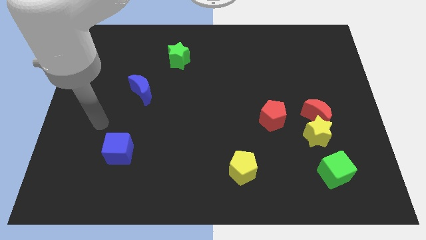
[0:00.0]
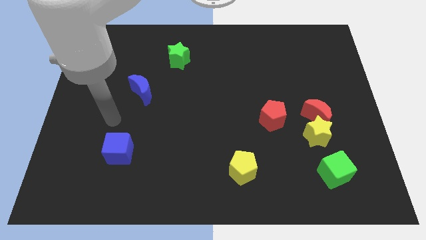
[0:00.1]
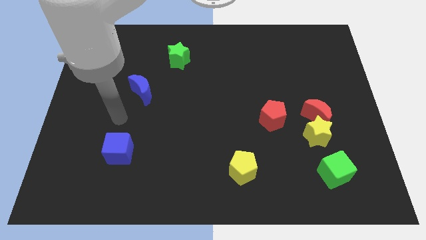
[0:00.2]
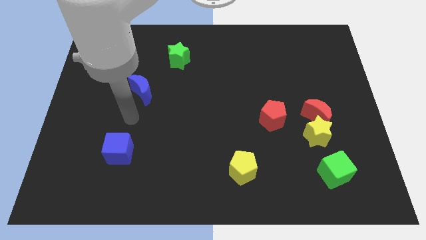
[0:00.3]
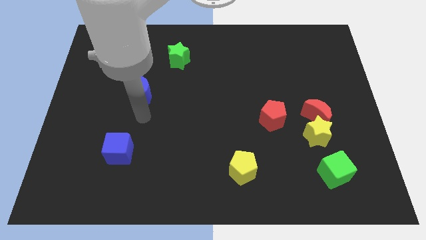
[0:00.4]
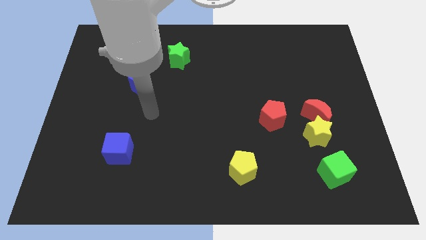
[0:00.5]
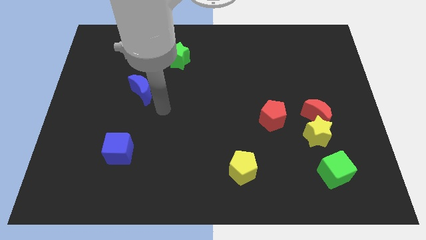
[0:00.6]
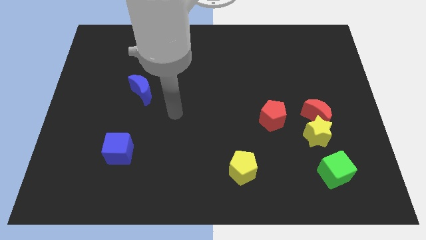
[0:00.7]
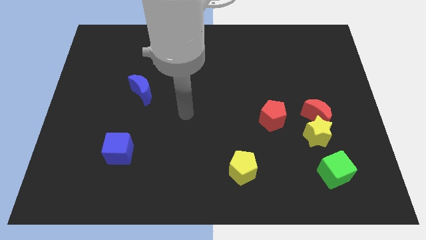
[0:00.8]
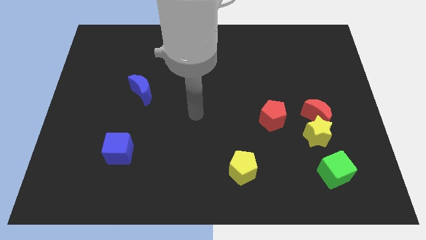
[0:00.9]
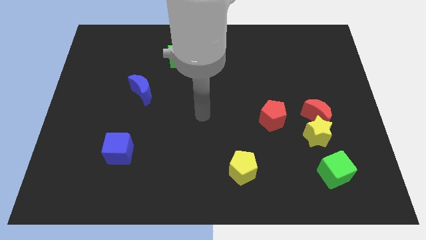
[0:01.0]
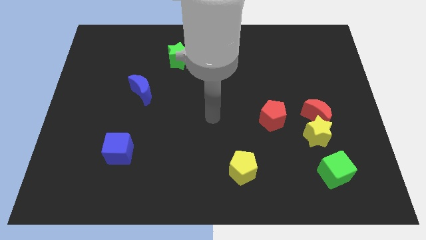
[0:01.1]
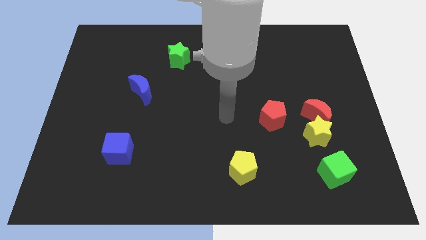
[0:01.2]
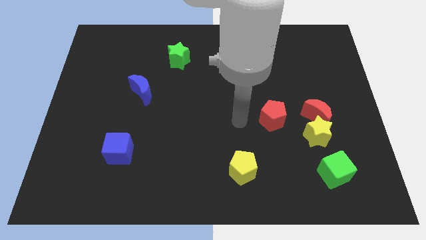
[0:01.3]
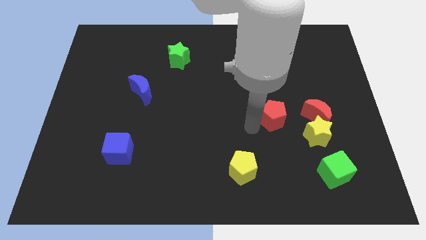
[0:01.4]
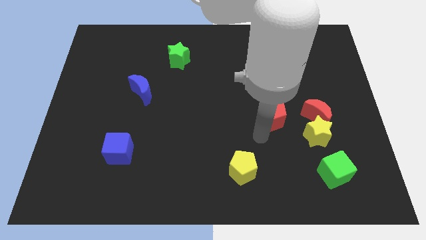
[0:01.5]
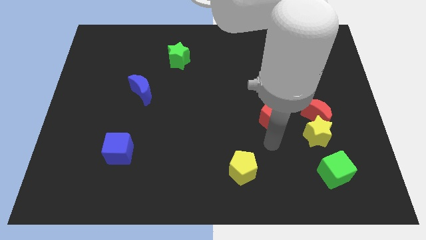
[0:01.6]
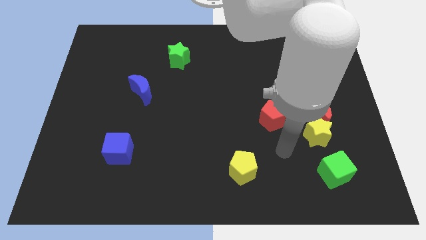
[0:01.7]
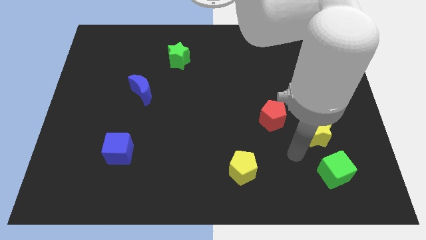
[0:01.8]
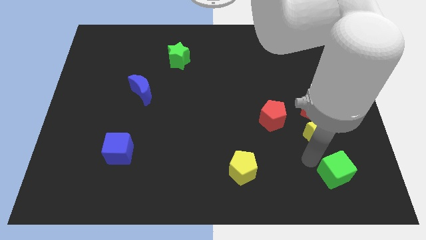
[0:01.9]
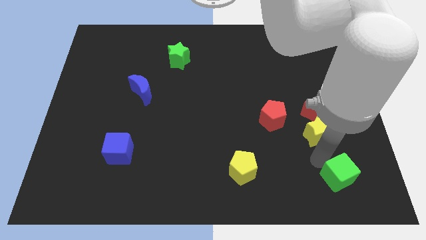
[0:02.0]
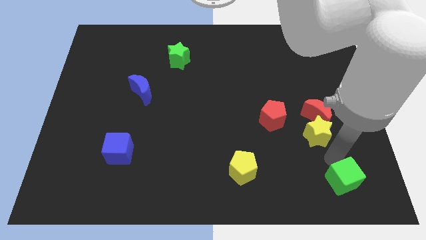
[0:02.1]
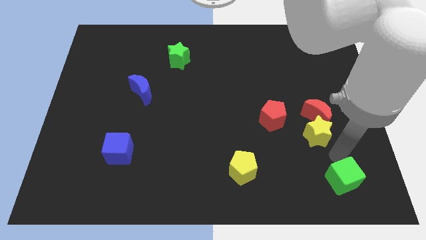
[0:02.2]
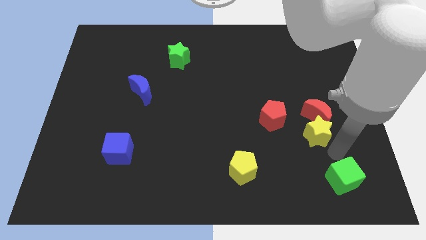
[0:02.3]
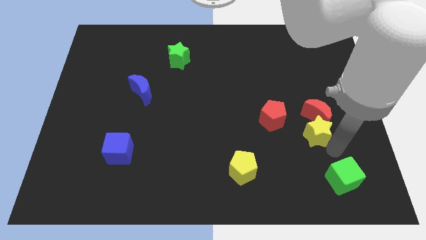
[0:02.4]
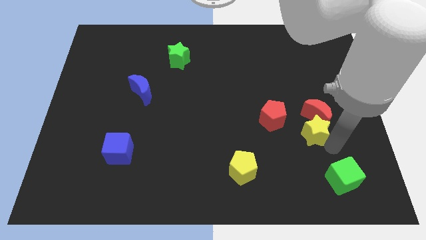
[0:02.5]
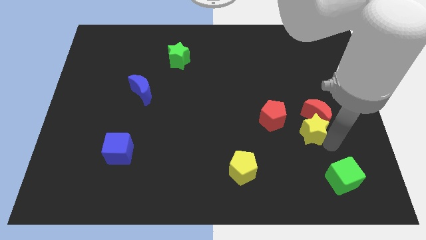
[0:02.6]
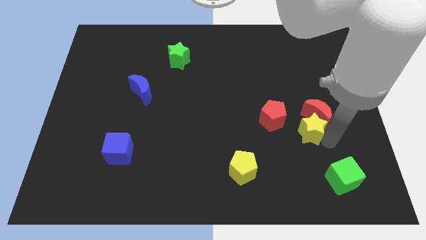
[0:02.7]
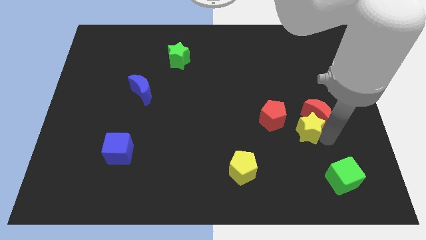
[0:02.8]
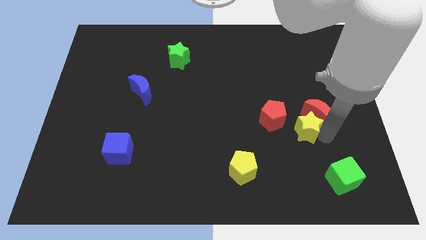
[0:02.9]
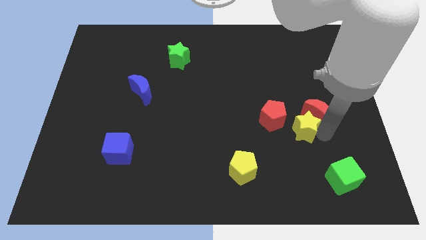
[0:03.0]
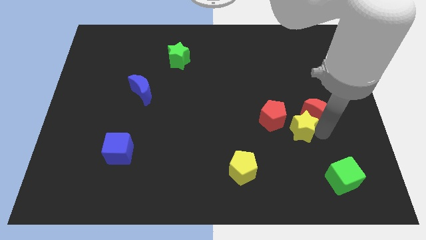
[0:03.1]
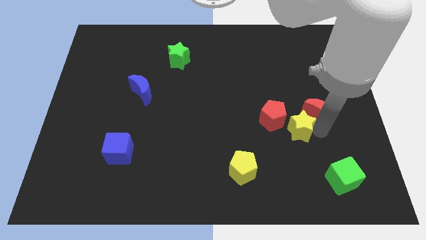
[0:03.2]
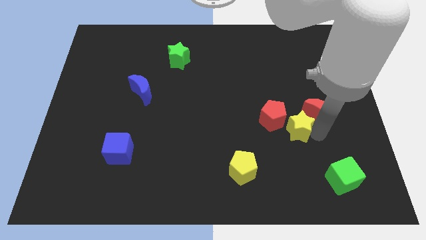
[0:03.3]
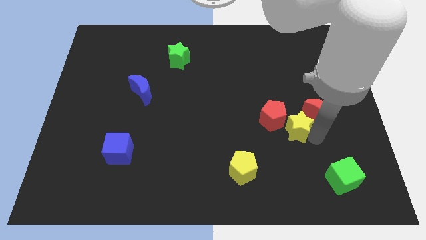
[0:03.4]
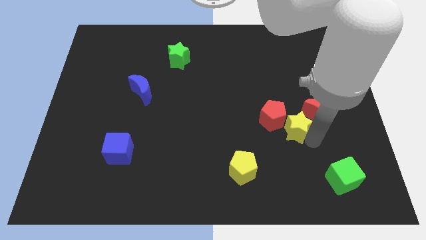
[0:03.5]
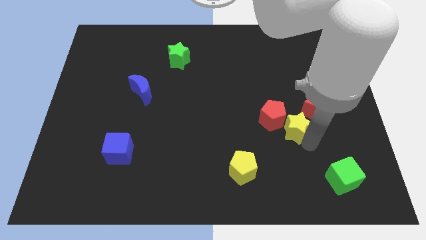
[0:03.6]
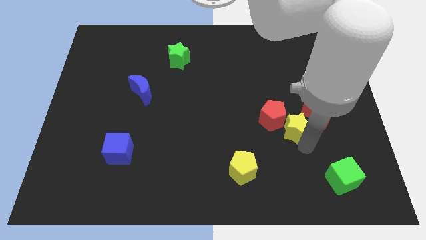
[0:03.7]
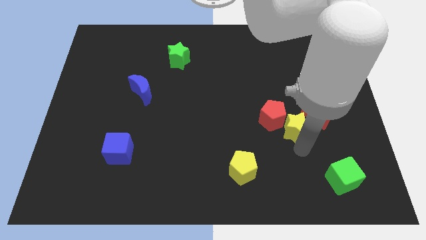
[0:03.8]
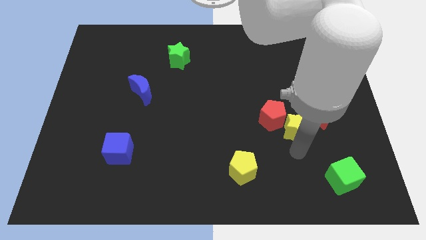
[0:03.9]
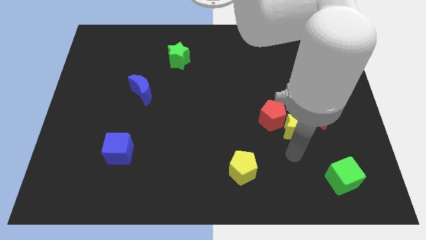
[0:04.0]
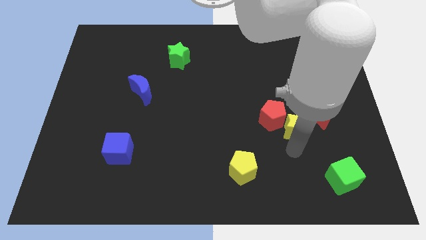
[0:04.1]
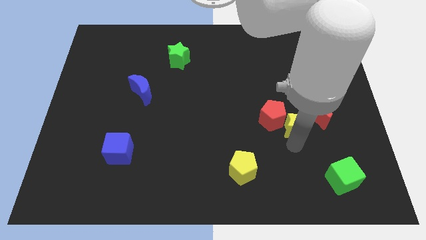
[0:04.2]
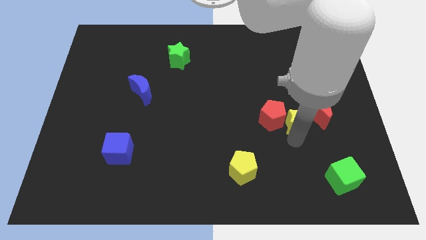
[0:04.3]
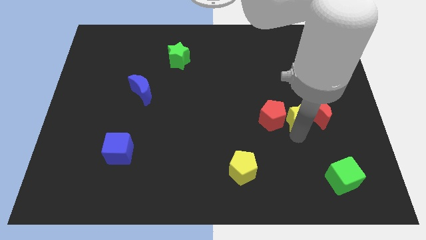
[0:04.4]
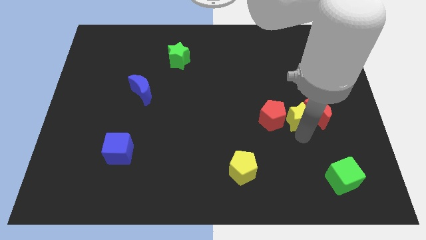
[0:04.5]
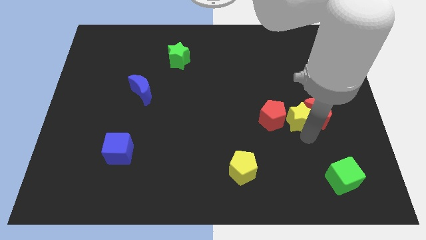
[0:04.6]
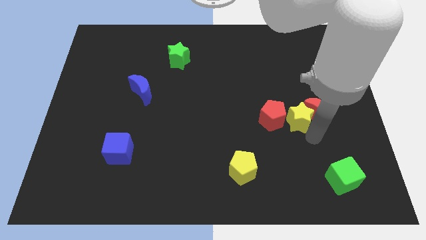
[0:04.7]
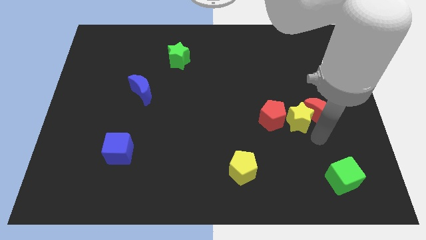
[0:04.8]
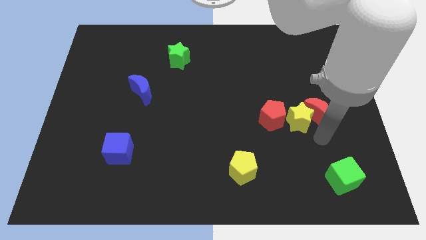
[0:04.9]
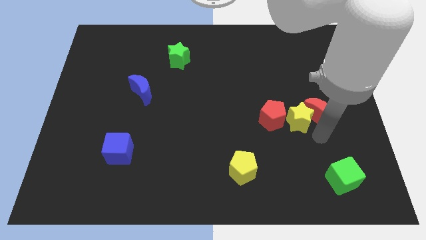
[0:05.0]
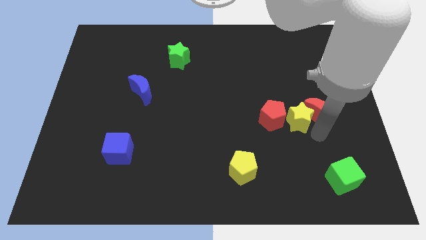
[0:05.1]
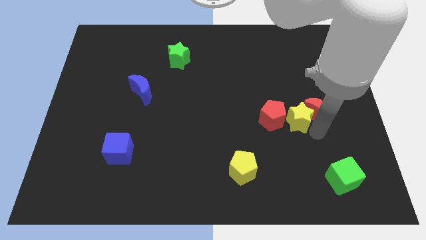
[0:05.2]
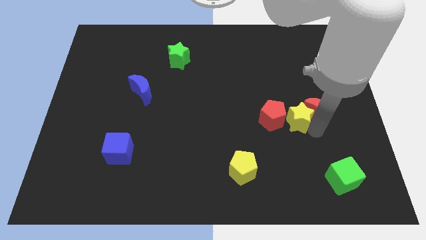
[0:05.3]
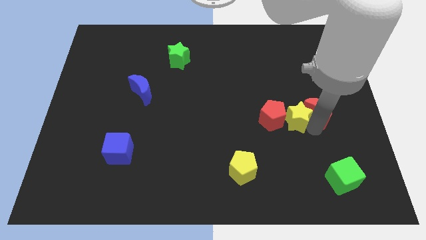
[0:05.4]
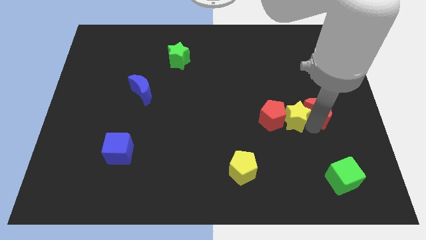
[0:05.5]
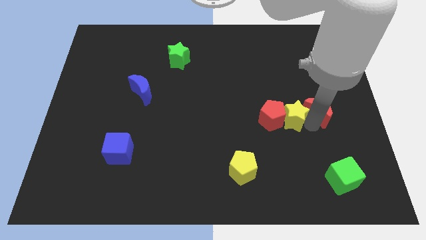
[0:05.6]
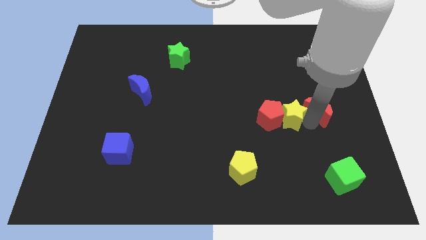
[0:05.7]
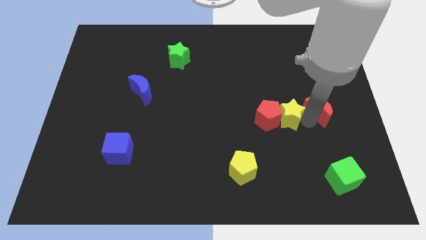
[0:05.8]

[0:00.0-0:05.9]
pull the yellow star apart from the red moon and green cube

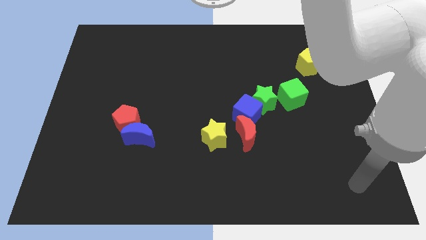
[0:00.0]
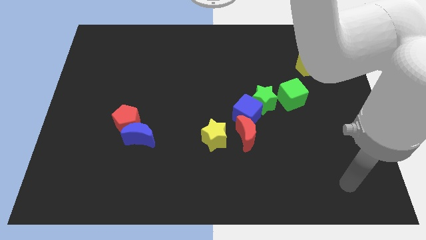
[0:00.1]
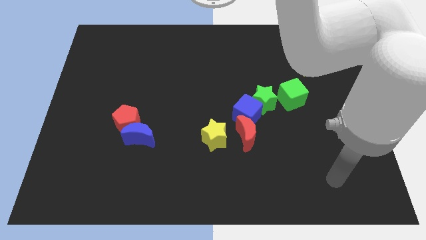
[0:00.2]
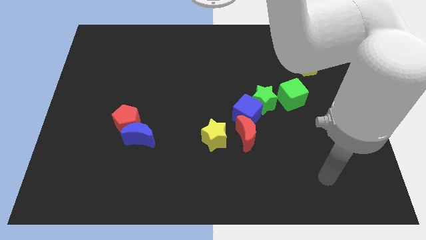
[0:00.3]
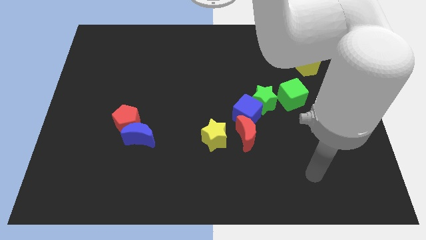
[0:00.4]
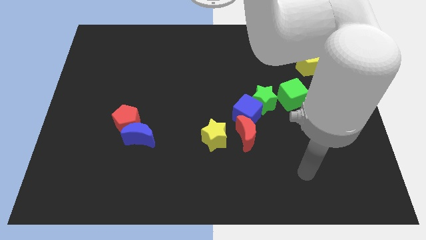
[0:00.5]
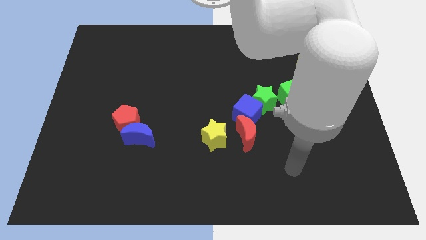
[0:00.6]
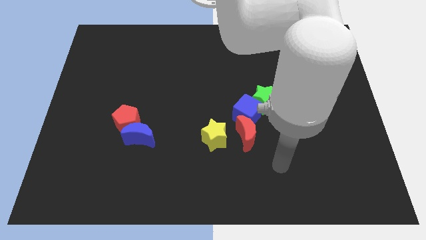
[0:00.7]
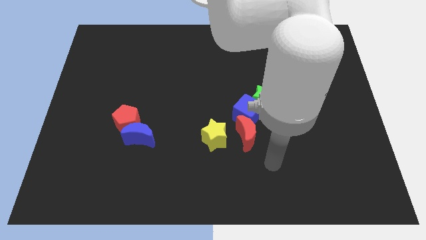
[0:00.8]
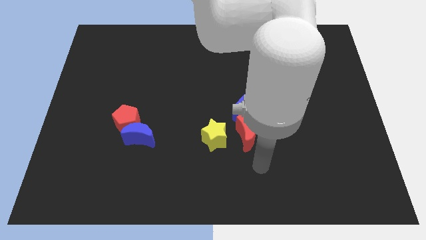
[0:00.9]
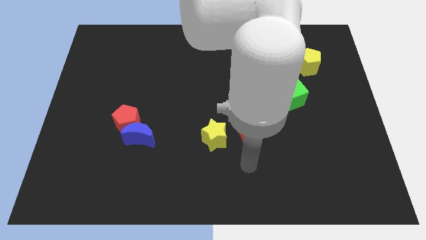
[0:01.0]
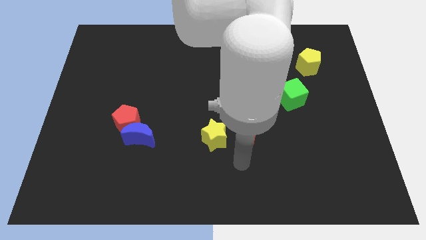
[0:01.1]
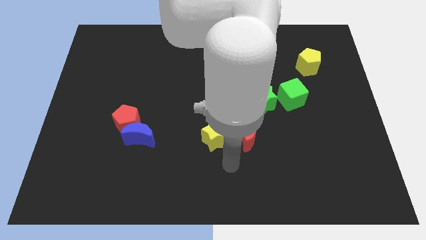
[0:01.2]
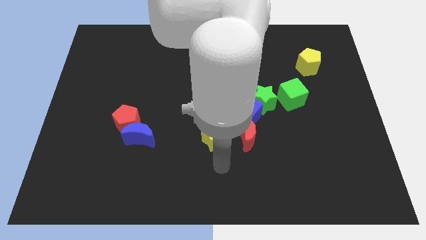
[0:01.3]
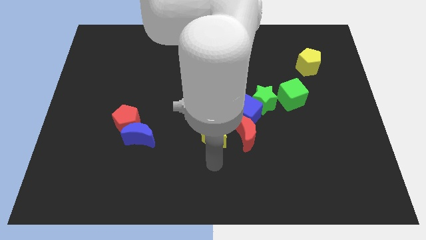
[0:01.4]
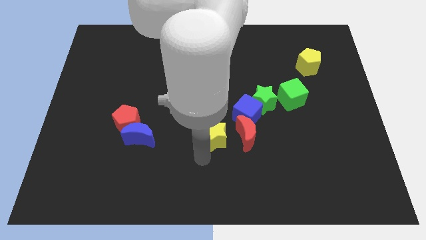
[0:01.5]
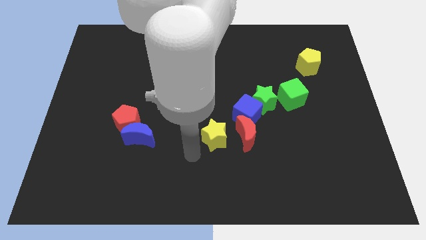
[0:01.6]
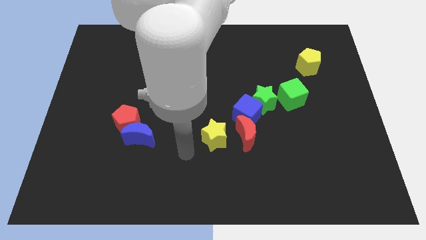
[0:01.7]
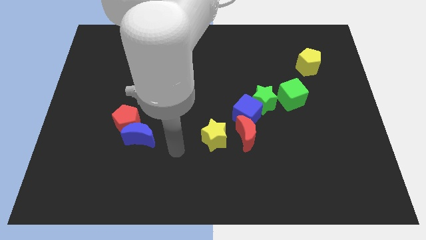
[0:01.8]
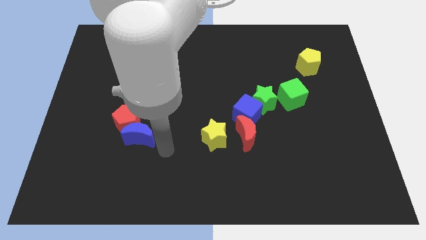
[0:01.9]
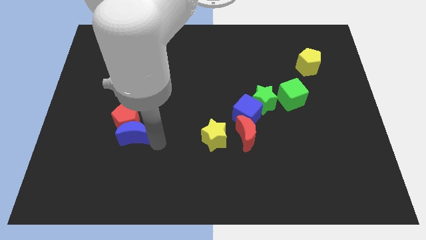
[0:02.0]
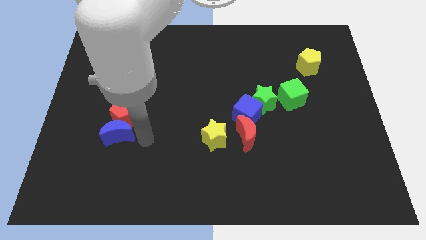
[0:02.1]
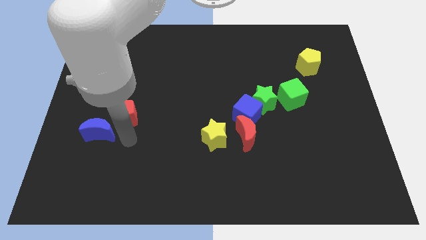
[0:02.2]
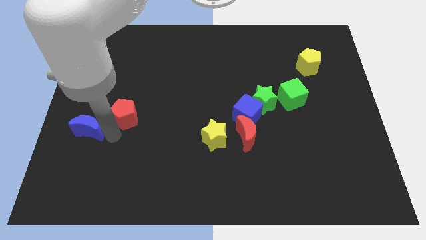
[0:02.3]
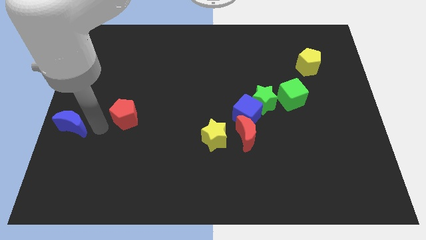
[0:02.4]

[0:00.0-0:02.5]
pull the red pentagon apart from the blue moon

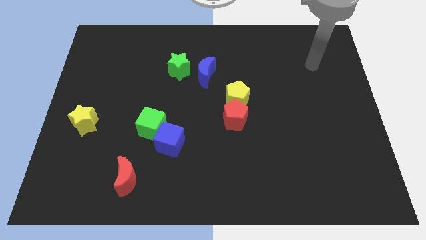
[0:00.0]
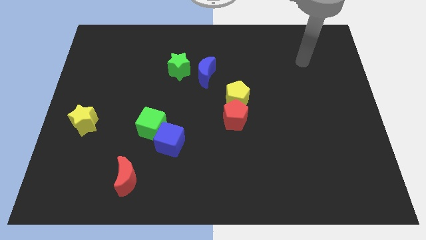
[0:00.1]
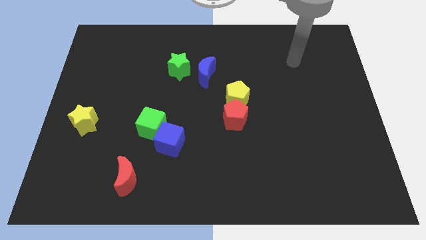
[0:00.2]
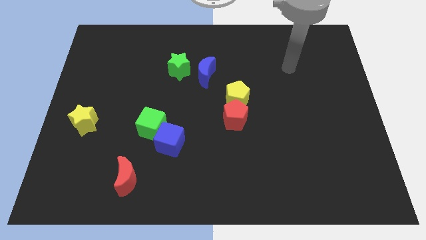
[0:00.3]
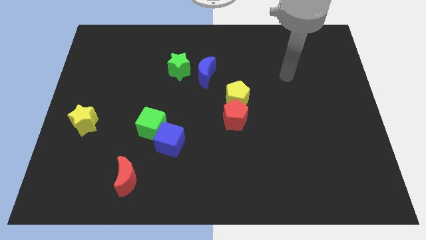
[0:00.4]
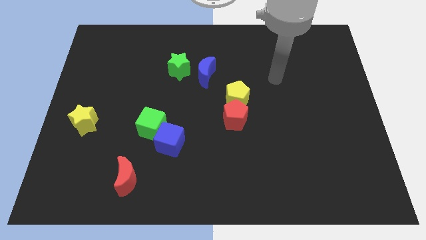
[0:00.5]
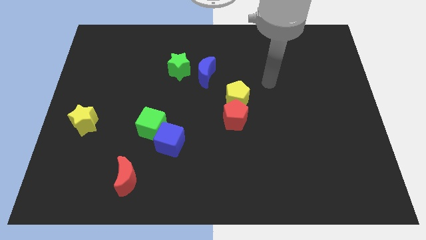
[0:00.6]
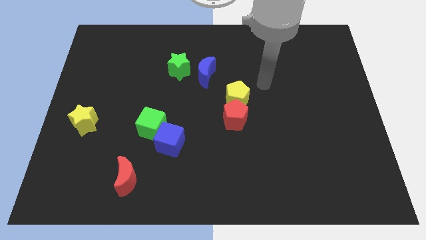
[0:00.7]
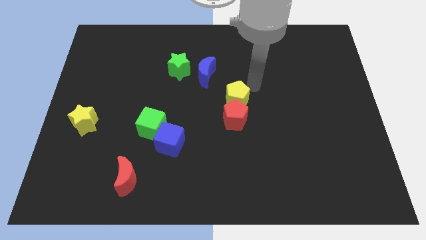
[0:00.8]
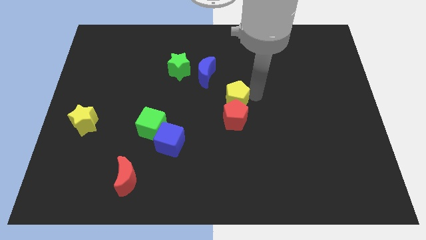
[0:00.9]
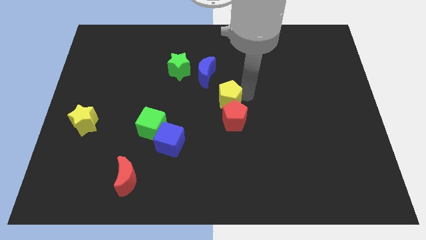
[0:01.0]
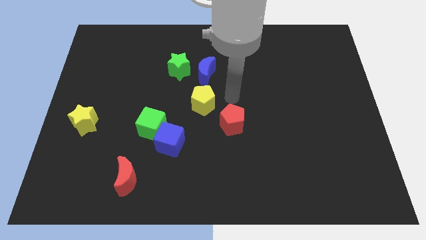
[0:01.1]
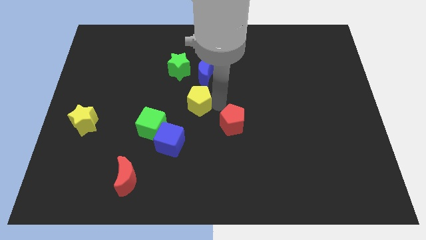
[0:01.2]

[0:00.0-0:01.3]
move the red pentagon away from the yellow pentagon
